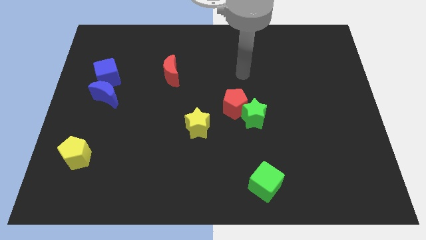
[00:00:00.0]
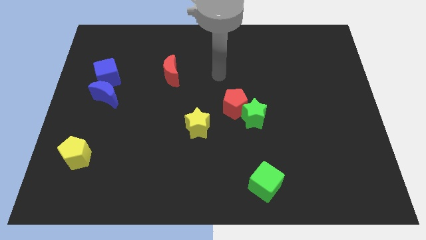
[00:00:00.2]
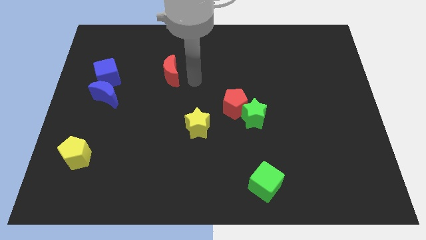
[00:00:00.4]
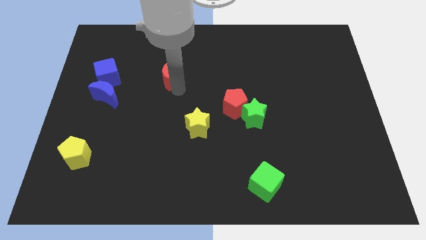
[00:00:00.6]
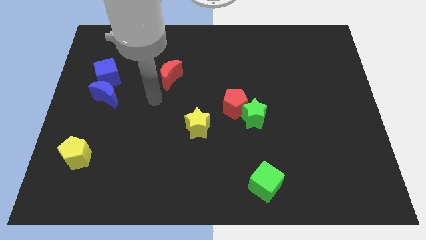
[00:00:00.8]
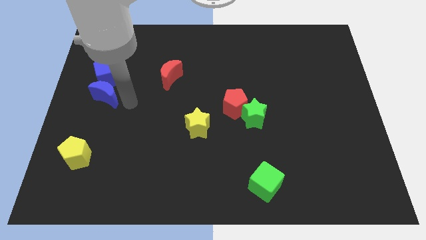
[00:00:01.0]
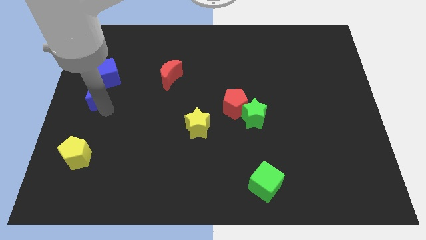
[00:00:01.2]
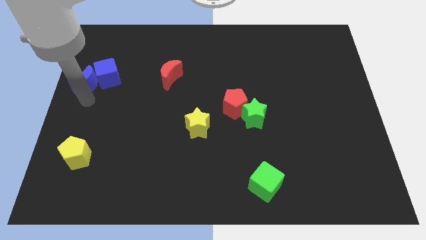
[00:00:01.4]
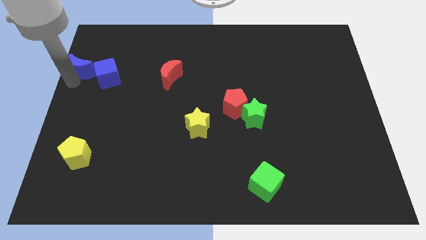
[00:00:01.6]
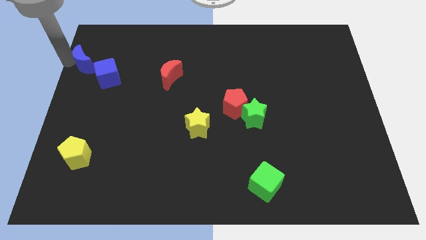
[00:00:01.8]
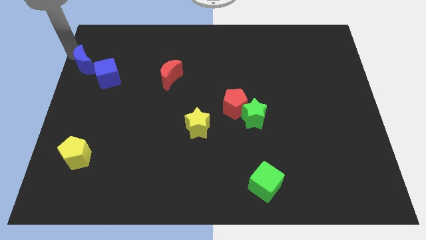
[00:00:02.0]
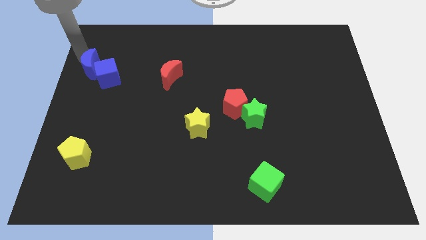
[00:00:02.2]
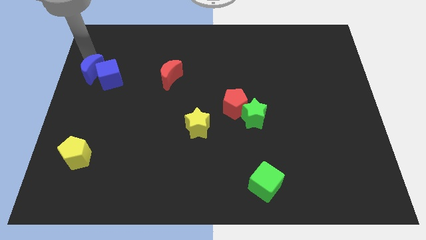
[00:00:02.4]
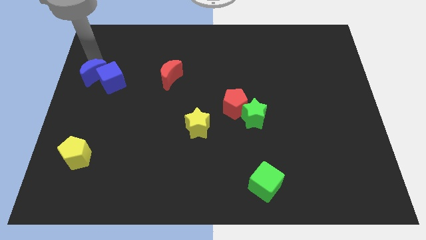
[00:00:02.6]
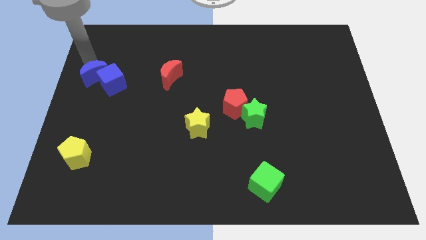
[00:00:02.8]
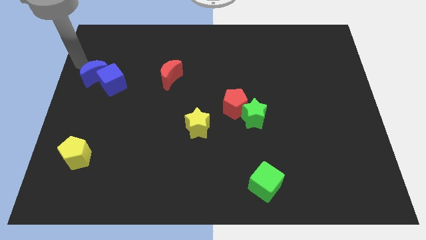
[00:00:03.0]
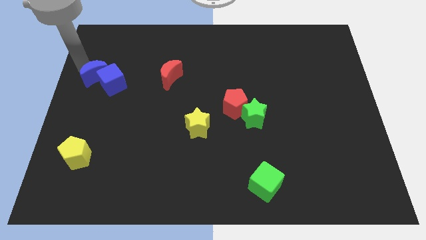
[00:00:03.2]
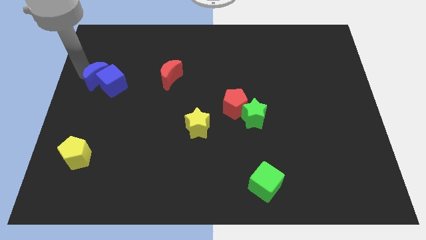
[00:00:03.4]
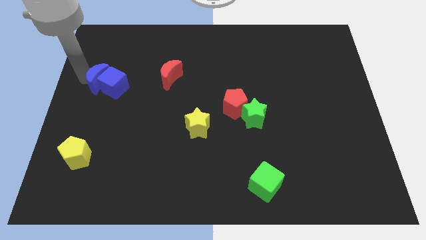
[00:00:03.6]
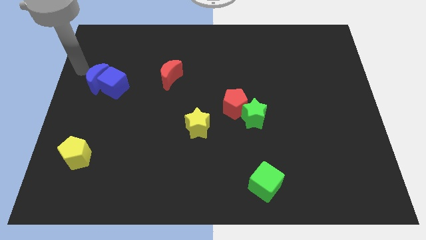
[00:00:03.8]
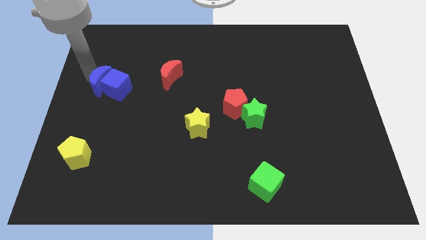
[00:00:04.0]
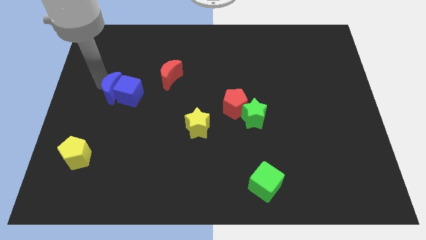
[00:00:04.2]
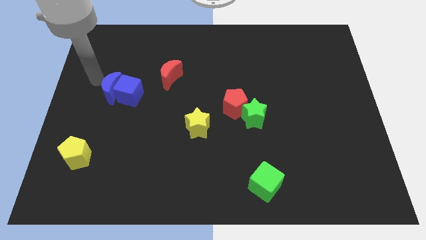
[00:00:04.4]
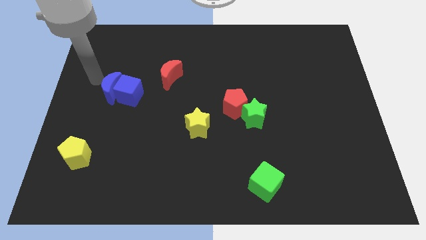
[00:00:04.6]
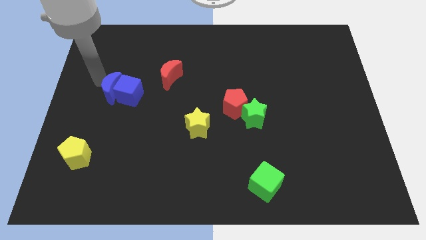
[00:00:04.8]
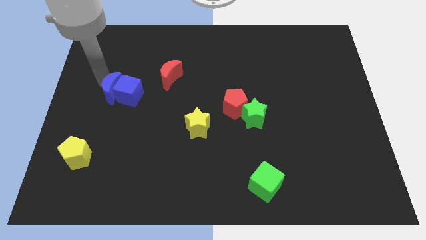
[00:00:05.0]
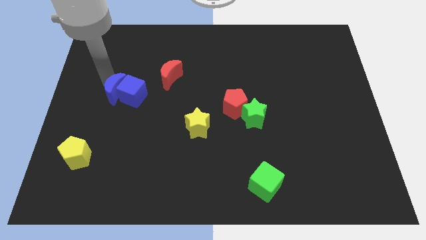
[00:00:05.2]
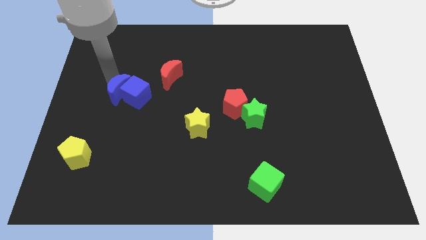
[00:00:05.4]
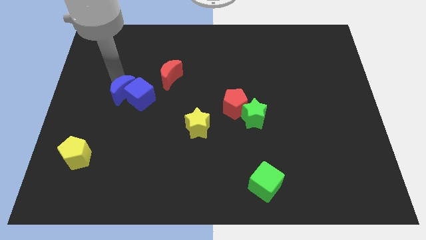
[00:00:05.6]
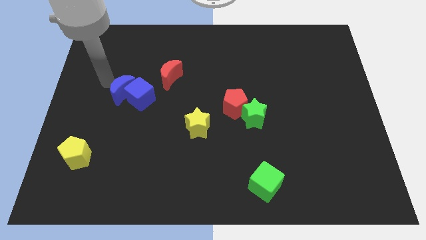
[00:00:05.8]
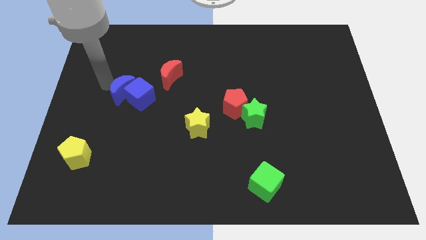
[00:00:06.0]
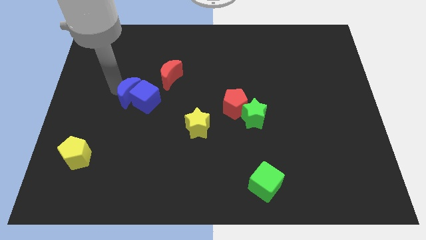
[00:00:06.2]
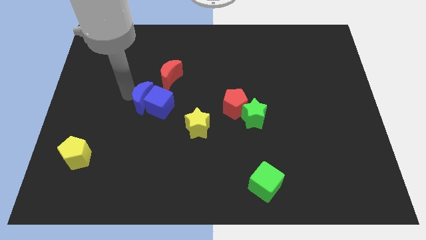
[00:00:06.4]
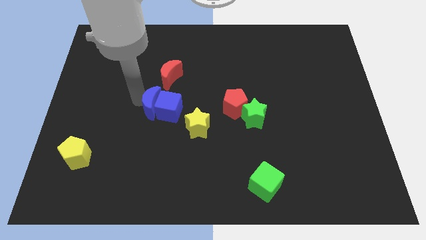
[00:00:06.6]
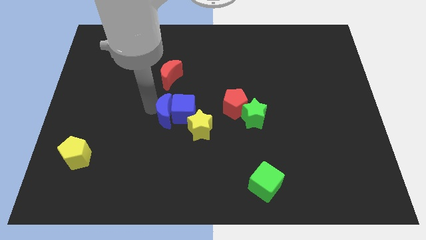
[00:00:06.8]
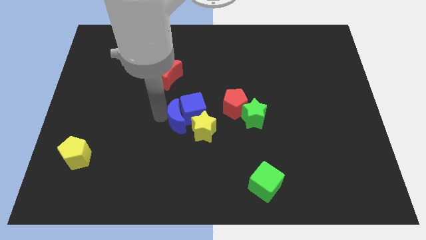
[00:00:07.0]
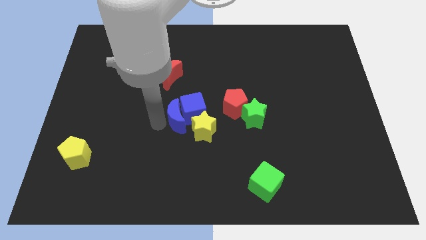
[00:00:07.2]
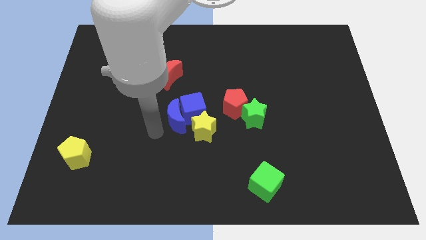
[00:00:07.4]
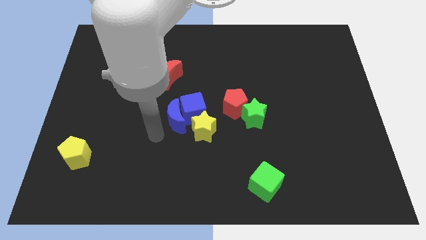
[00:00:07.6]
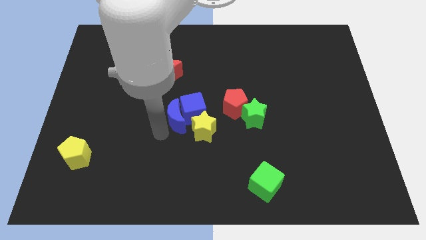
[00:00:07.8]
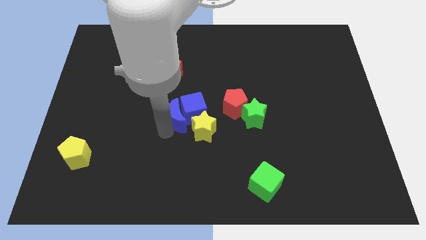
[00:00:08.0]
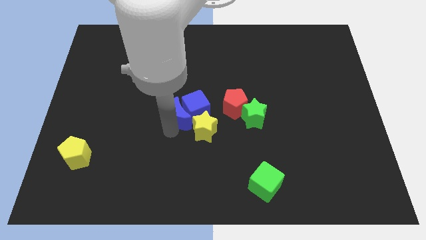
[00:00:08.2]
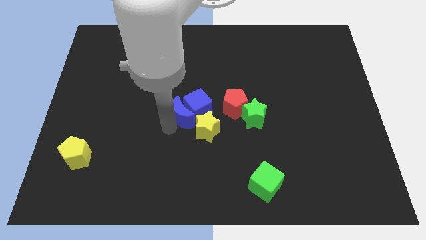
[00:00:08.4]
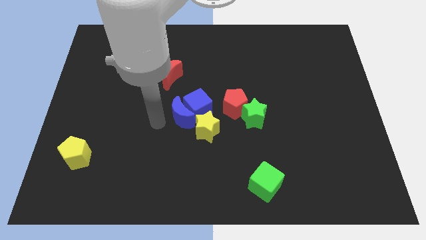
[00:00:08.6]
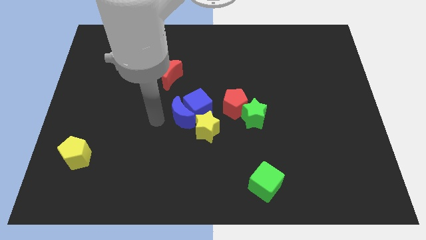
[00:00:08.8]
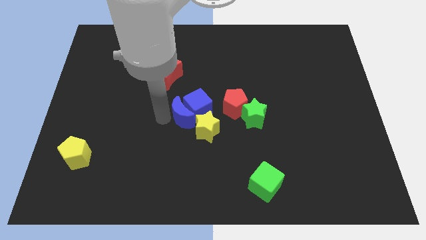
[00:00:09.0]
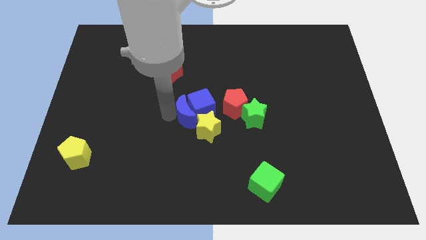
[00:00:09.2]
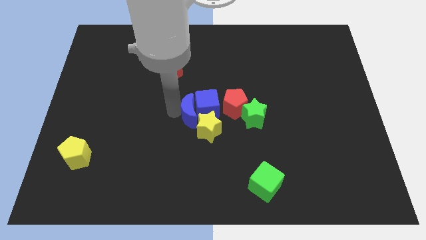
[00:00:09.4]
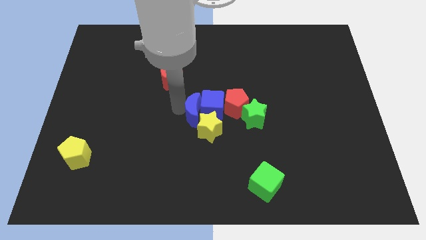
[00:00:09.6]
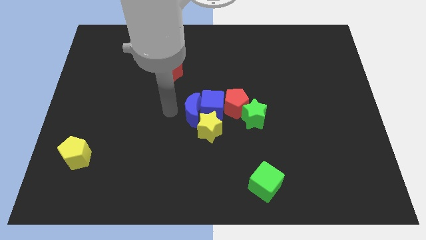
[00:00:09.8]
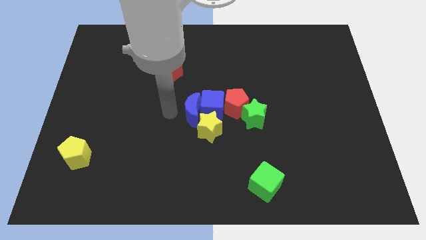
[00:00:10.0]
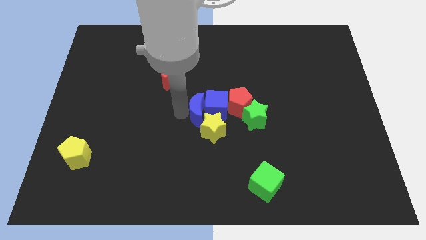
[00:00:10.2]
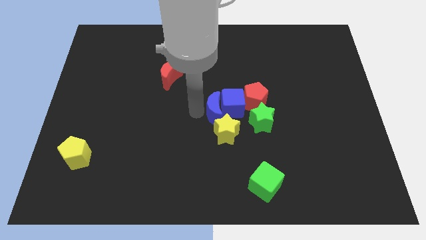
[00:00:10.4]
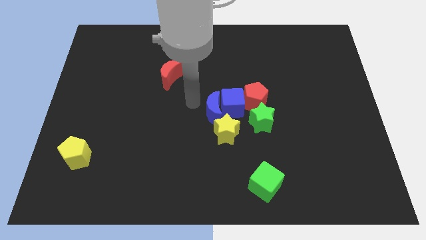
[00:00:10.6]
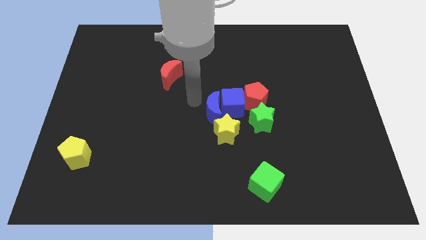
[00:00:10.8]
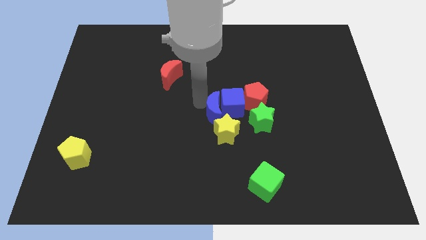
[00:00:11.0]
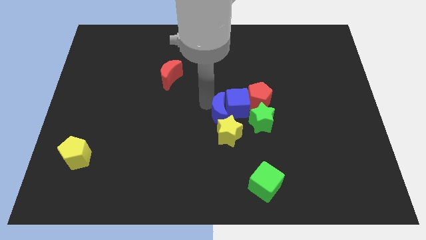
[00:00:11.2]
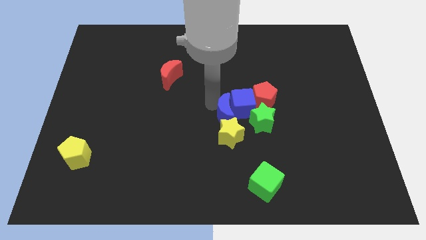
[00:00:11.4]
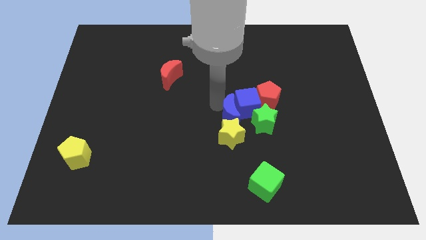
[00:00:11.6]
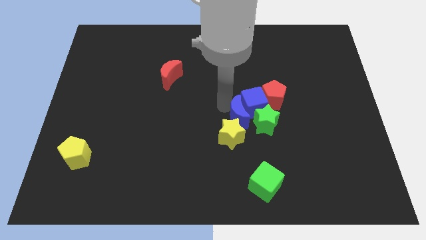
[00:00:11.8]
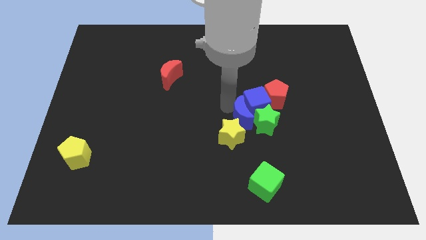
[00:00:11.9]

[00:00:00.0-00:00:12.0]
put the blue moon to the green star

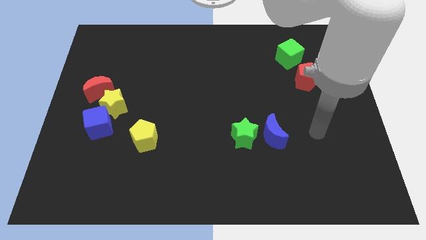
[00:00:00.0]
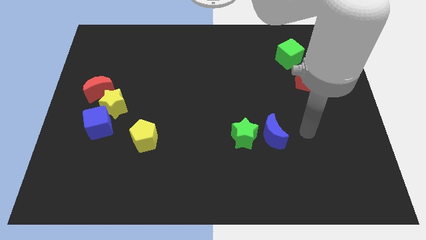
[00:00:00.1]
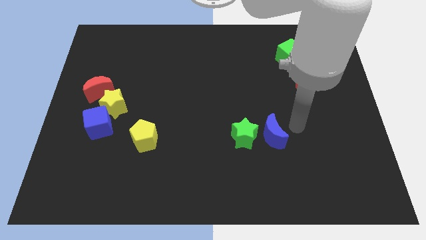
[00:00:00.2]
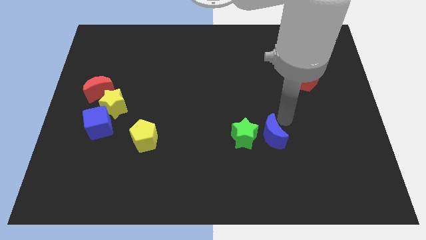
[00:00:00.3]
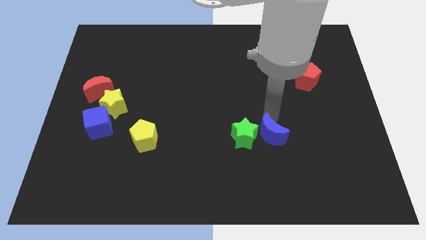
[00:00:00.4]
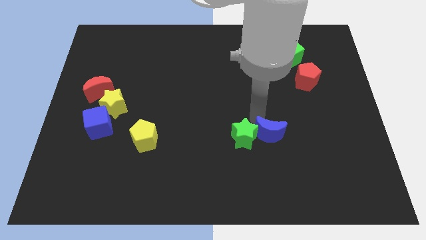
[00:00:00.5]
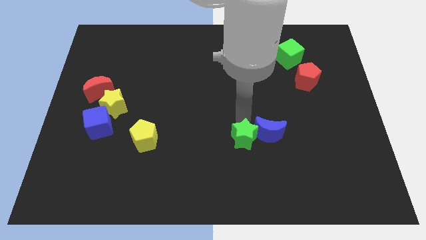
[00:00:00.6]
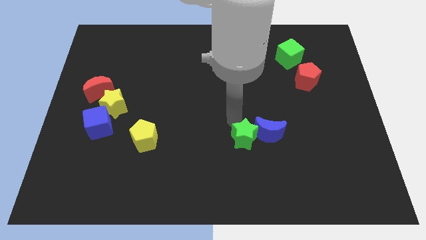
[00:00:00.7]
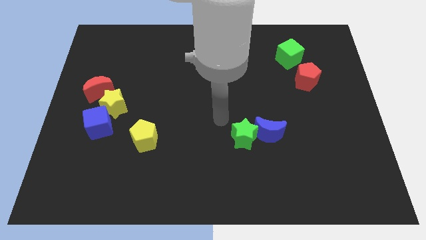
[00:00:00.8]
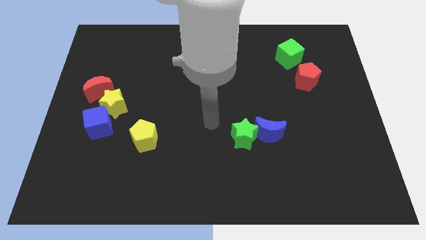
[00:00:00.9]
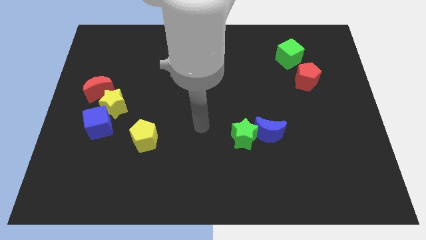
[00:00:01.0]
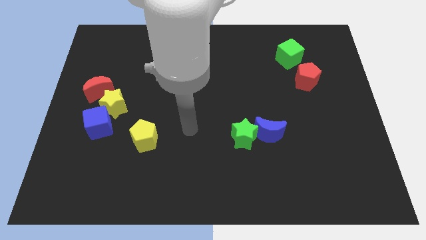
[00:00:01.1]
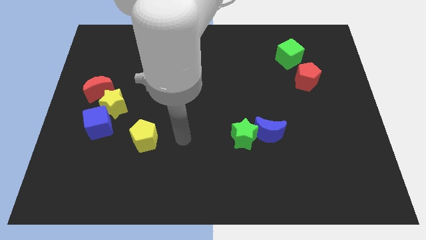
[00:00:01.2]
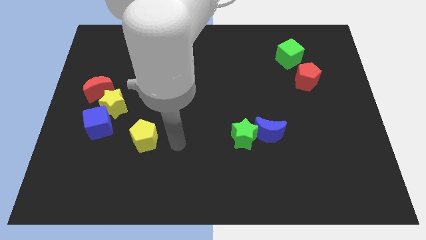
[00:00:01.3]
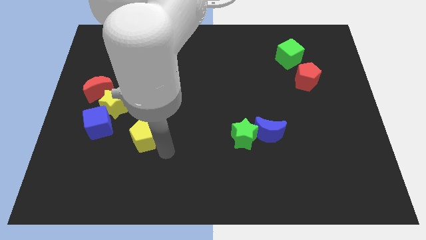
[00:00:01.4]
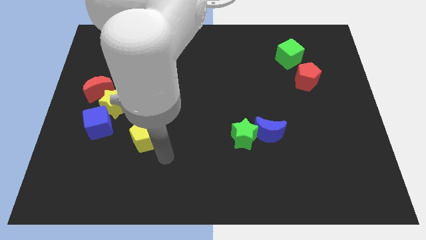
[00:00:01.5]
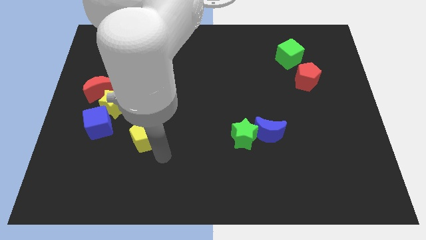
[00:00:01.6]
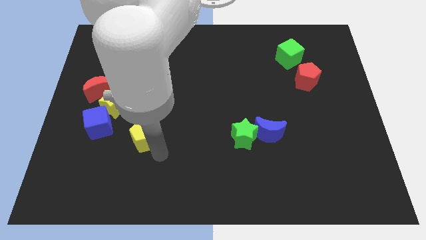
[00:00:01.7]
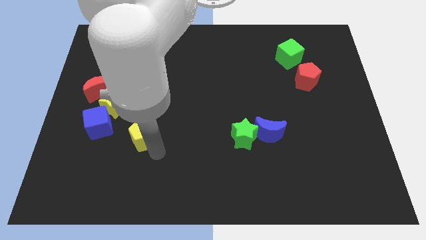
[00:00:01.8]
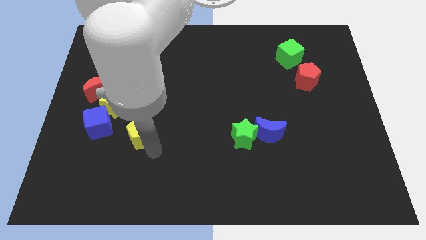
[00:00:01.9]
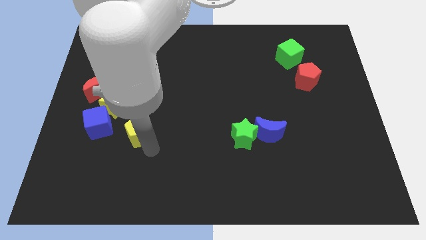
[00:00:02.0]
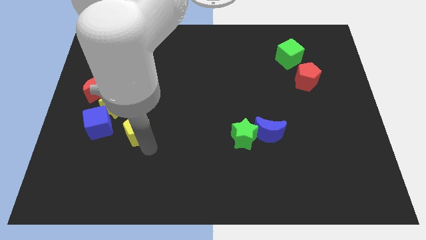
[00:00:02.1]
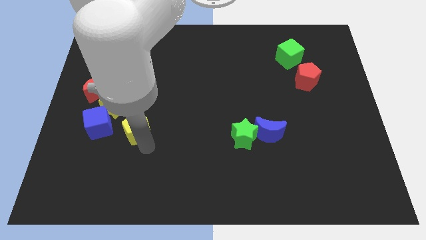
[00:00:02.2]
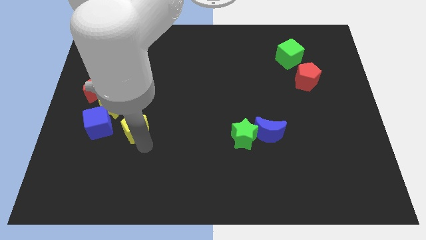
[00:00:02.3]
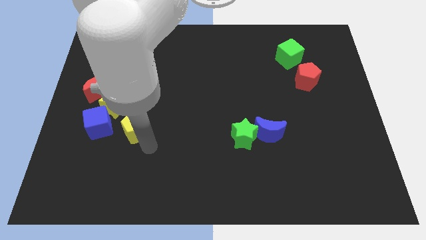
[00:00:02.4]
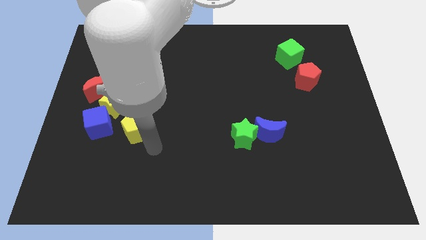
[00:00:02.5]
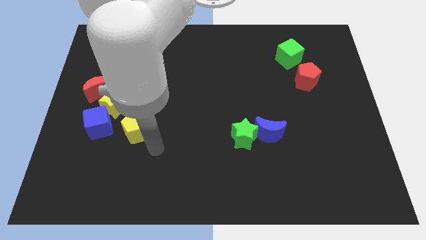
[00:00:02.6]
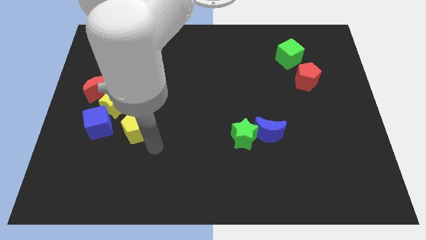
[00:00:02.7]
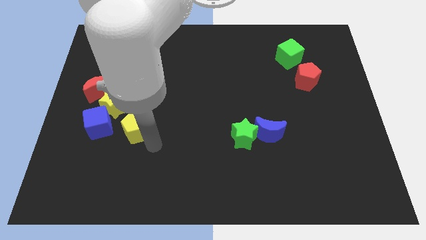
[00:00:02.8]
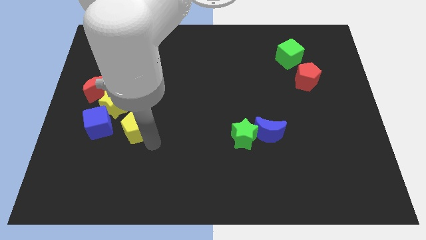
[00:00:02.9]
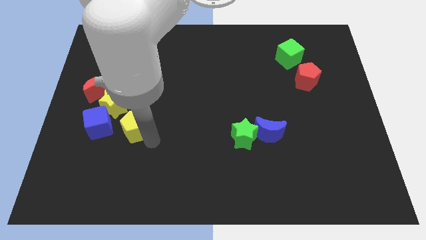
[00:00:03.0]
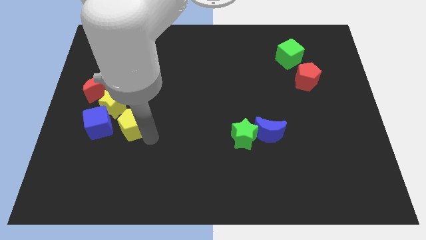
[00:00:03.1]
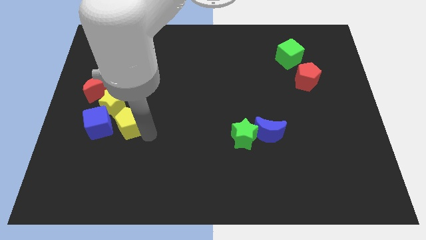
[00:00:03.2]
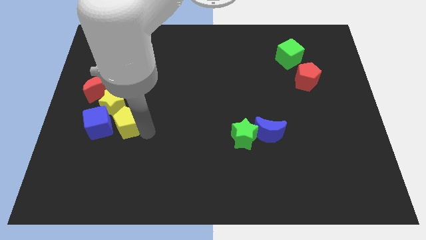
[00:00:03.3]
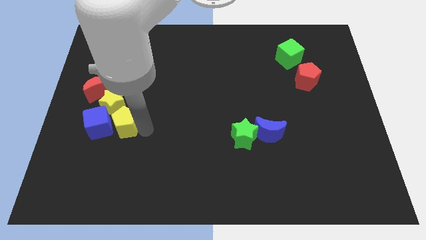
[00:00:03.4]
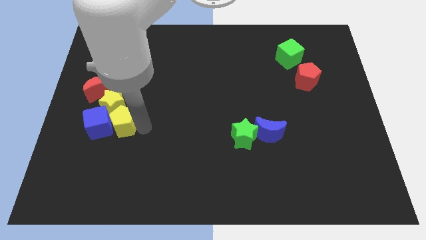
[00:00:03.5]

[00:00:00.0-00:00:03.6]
slide the yellow pentagon to the yellow star
